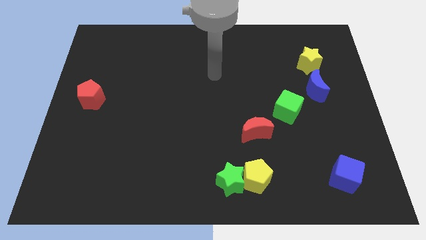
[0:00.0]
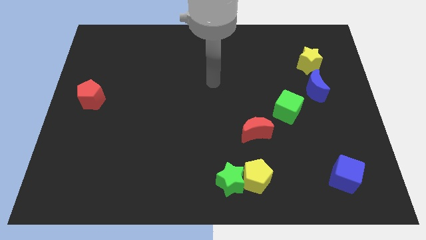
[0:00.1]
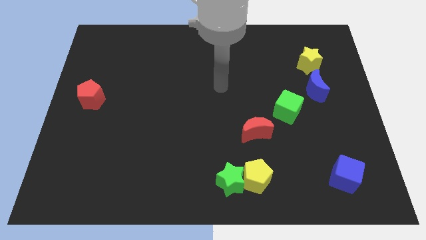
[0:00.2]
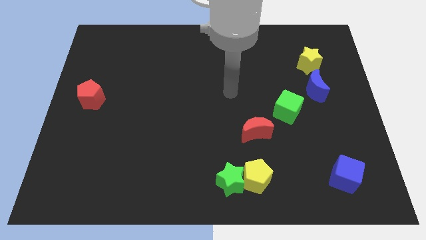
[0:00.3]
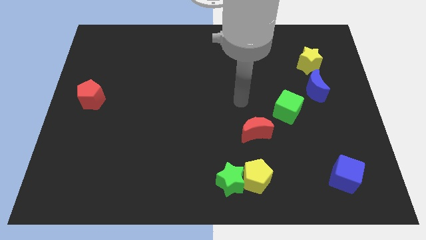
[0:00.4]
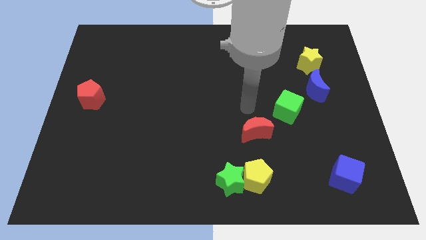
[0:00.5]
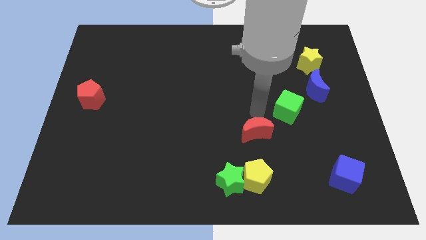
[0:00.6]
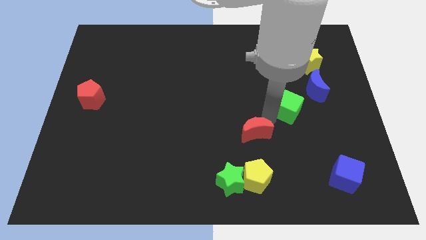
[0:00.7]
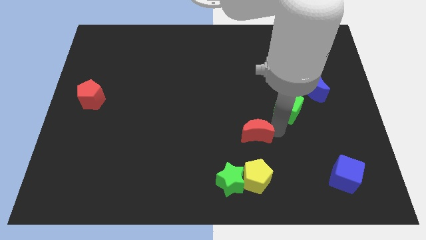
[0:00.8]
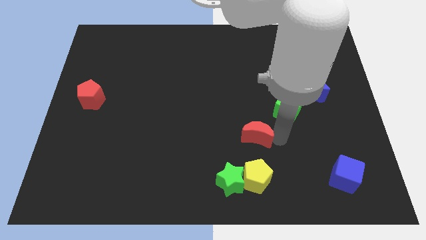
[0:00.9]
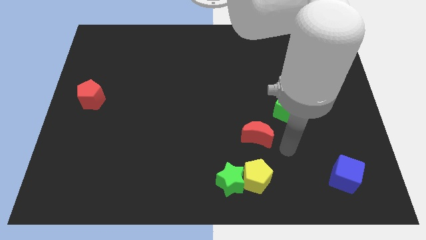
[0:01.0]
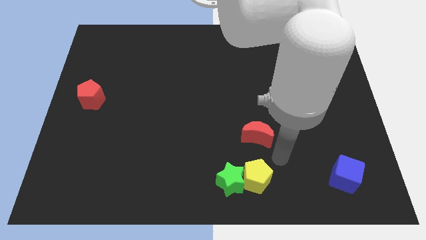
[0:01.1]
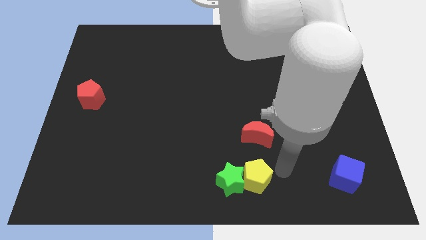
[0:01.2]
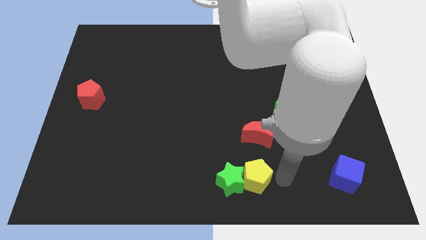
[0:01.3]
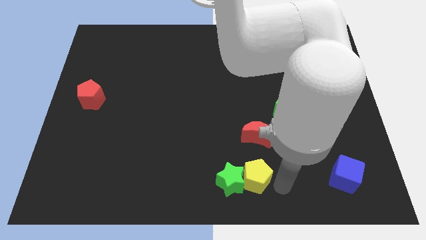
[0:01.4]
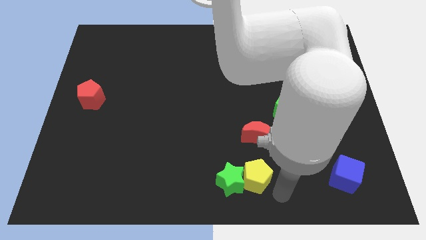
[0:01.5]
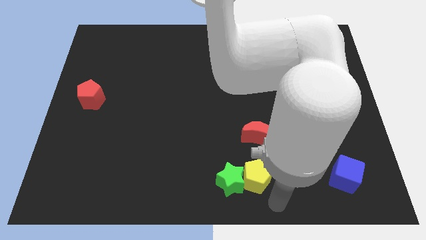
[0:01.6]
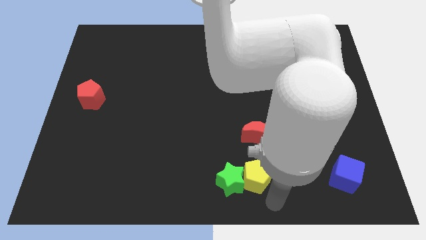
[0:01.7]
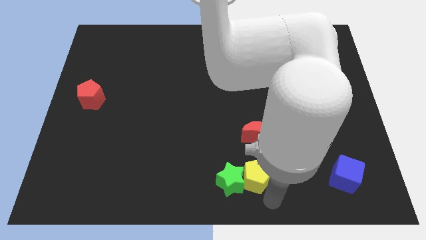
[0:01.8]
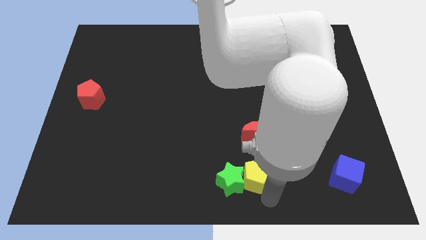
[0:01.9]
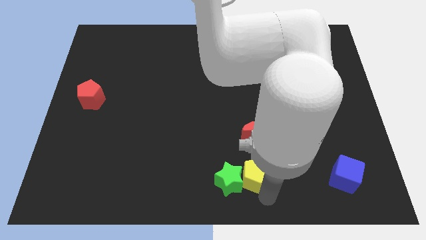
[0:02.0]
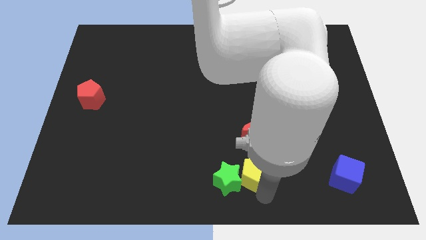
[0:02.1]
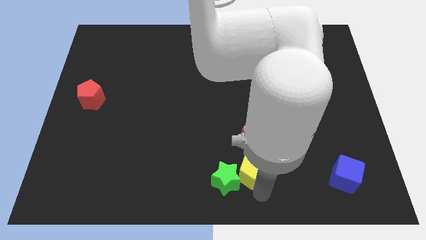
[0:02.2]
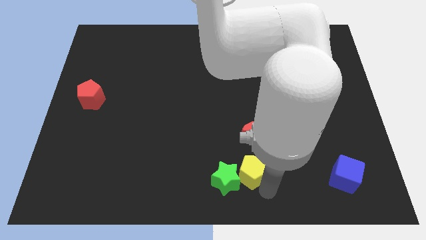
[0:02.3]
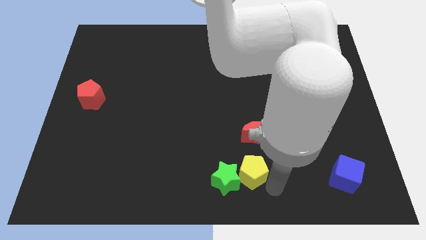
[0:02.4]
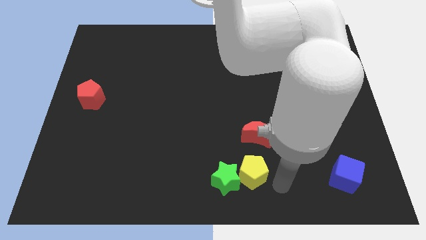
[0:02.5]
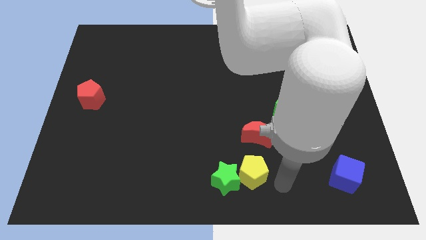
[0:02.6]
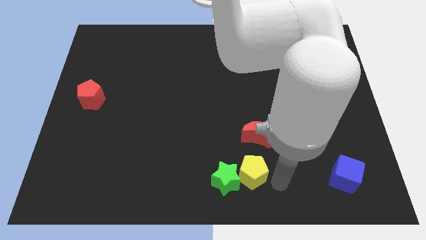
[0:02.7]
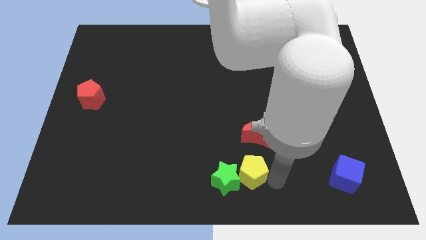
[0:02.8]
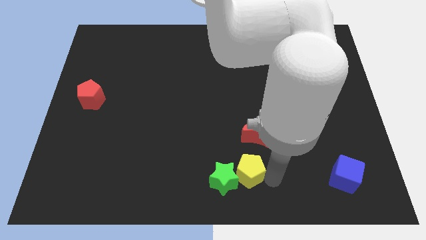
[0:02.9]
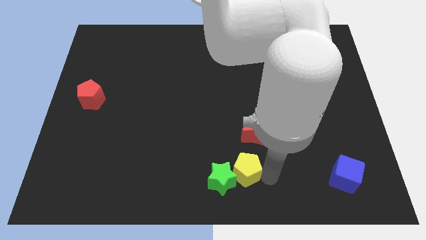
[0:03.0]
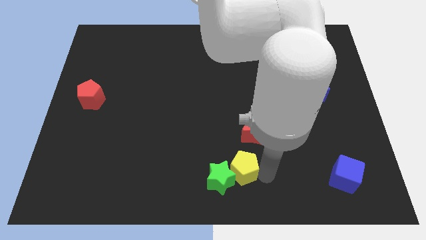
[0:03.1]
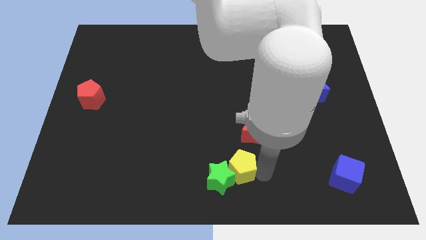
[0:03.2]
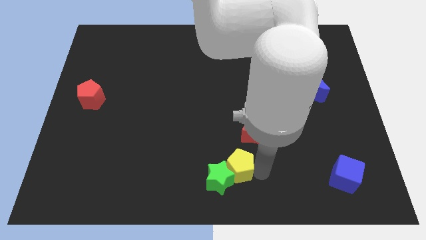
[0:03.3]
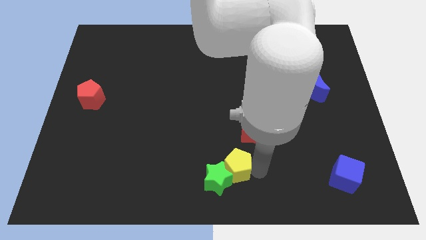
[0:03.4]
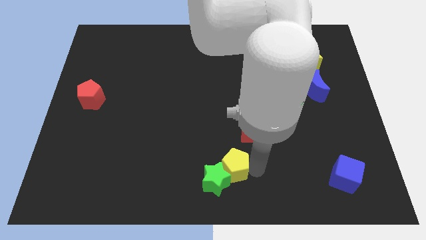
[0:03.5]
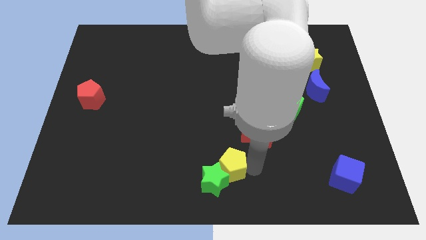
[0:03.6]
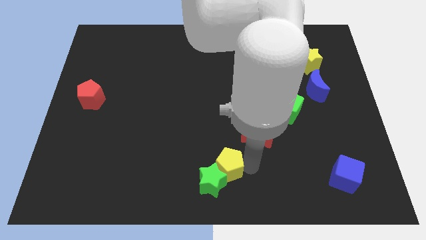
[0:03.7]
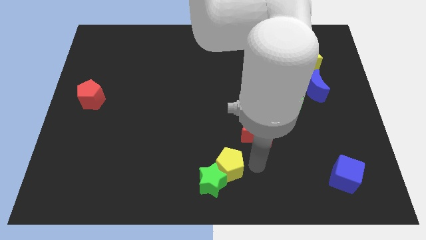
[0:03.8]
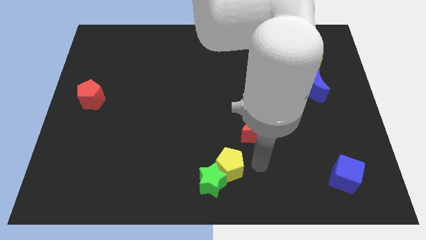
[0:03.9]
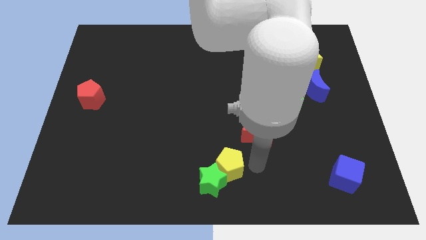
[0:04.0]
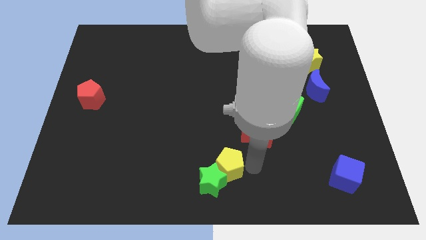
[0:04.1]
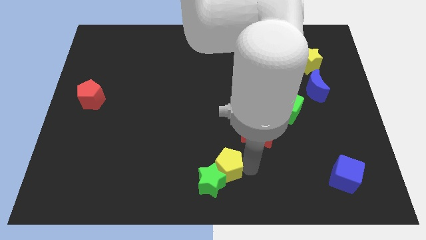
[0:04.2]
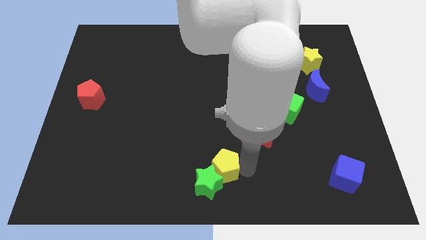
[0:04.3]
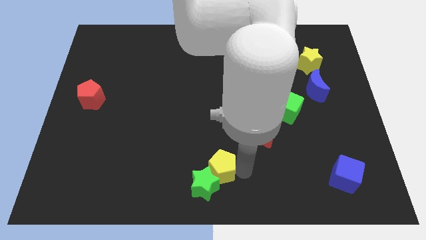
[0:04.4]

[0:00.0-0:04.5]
move the yellow pentagon to the left a bit

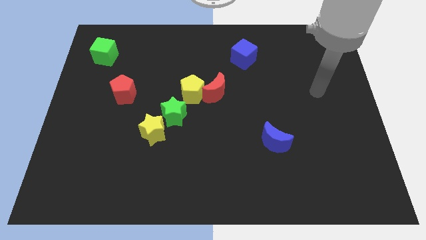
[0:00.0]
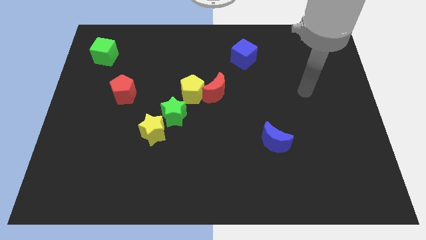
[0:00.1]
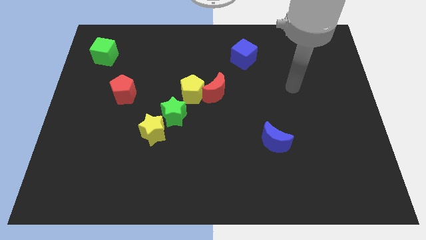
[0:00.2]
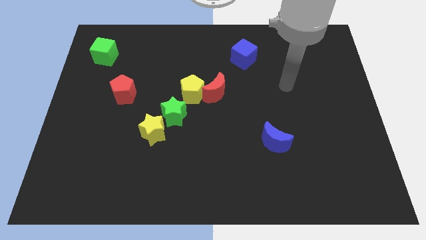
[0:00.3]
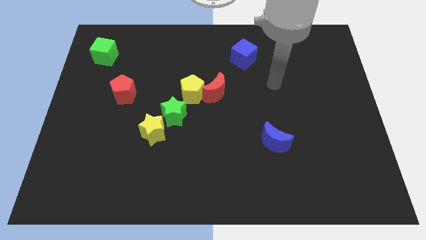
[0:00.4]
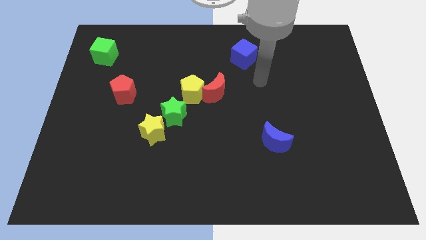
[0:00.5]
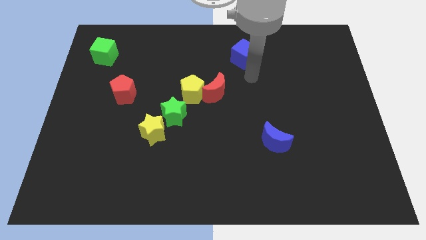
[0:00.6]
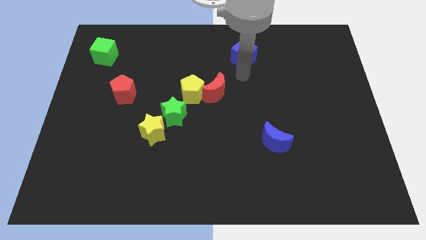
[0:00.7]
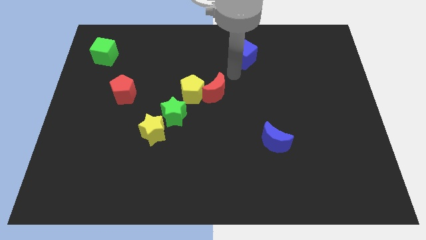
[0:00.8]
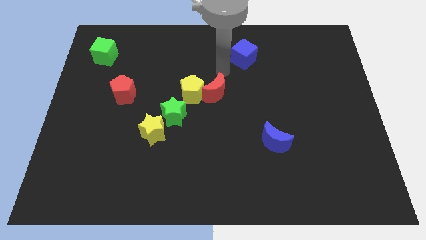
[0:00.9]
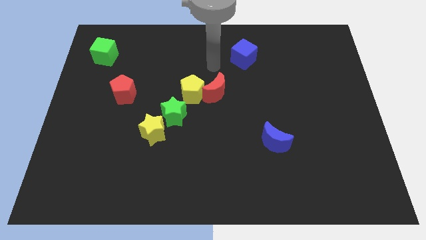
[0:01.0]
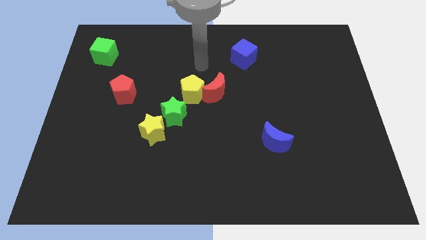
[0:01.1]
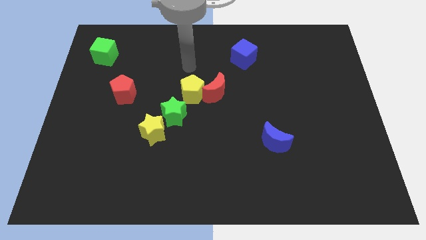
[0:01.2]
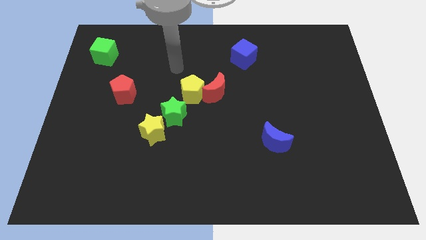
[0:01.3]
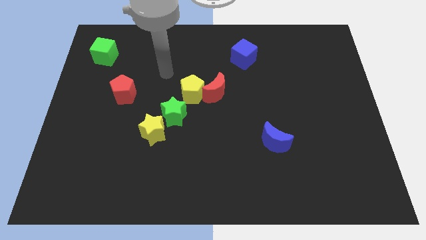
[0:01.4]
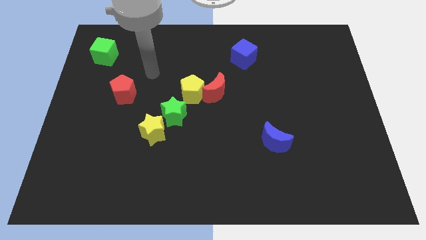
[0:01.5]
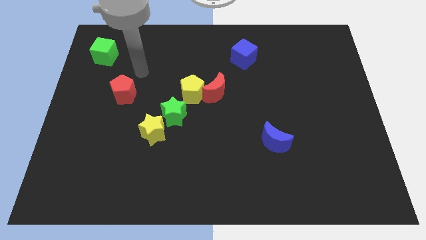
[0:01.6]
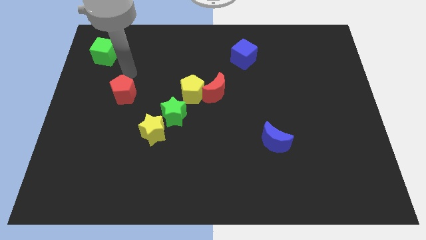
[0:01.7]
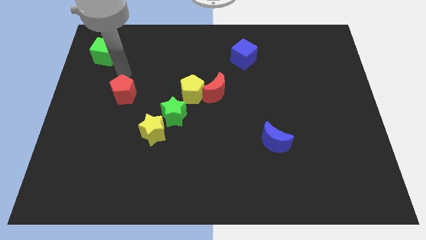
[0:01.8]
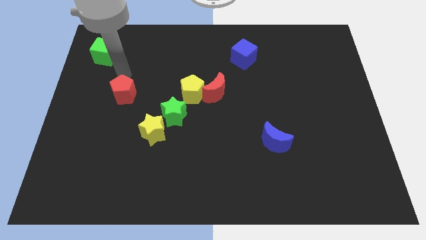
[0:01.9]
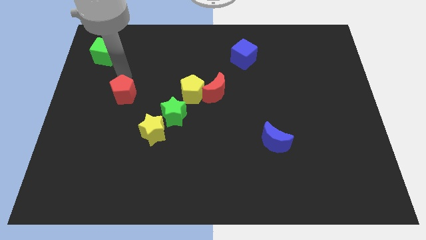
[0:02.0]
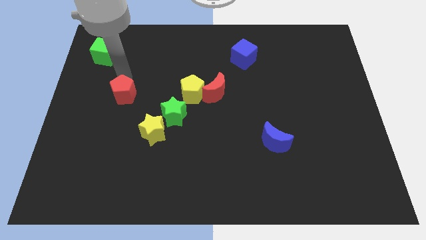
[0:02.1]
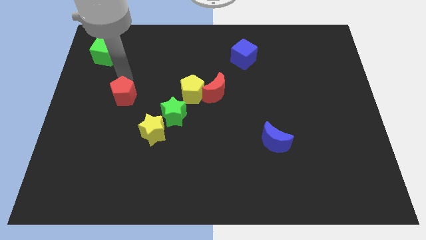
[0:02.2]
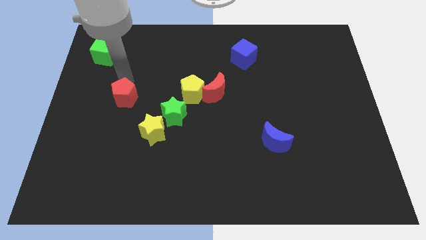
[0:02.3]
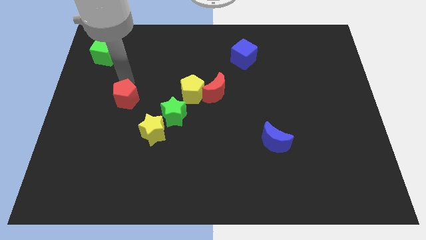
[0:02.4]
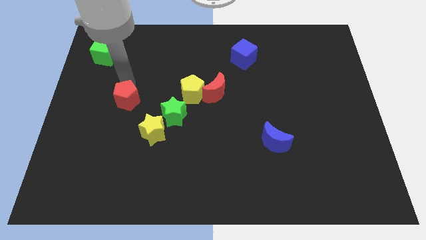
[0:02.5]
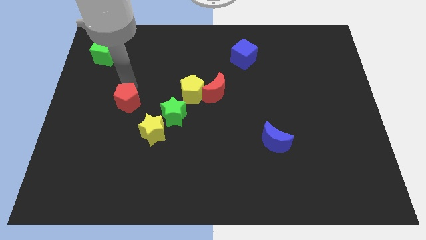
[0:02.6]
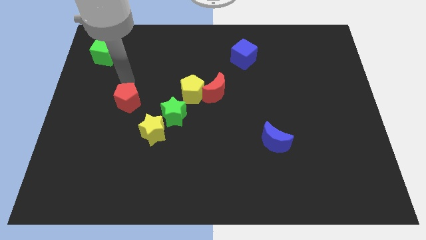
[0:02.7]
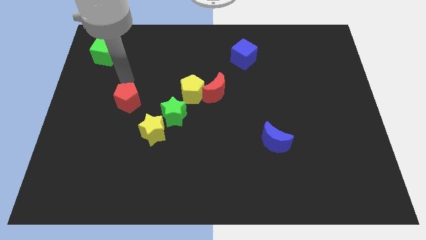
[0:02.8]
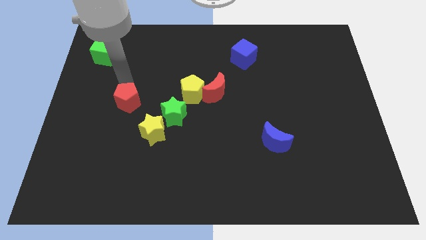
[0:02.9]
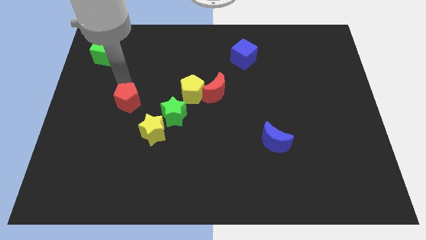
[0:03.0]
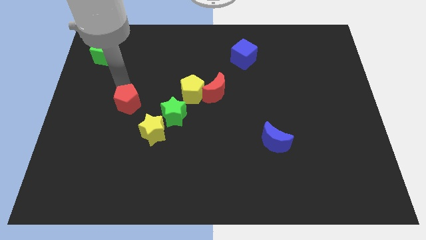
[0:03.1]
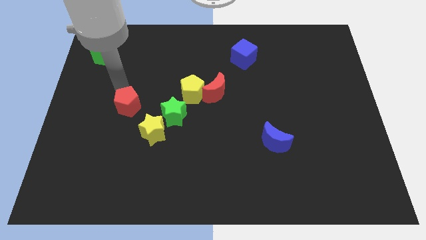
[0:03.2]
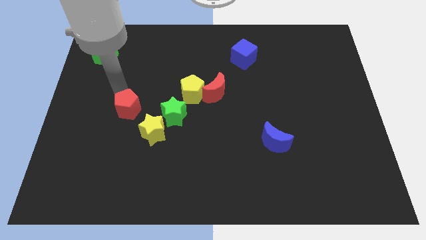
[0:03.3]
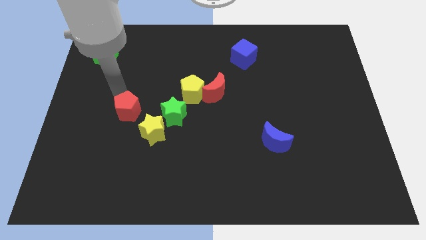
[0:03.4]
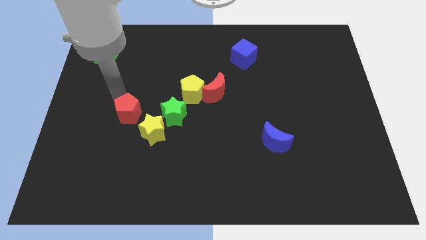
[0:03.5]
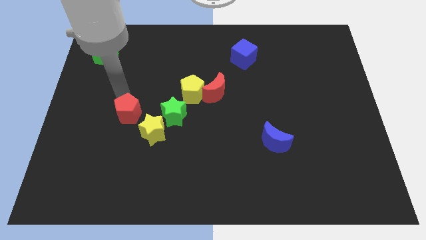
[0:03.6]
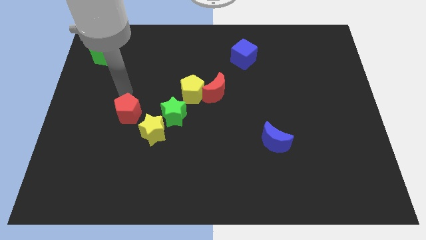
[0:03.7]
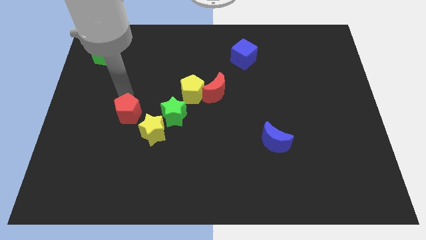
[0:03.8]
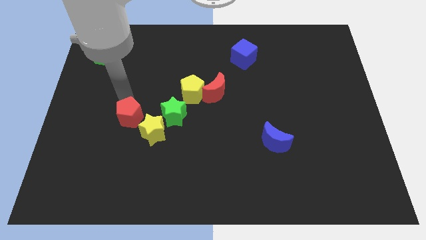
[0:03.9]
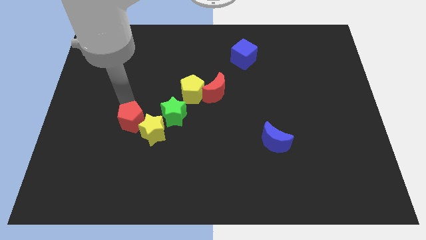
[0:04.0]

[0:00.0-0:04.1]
move the red pentagon a bit down and to the right
